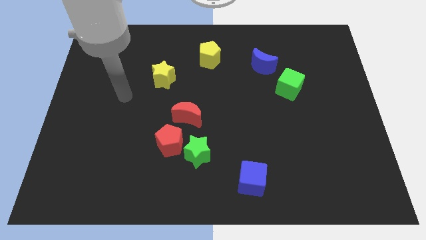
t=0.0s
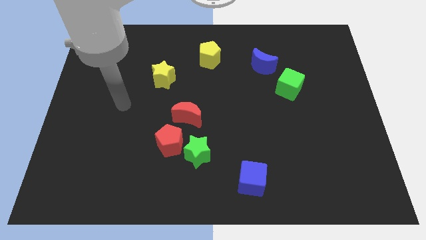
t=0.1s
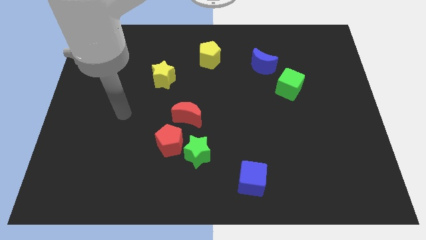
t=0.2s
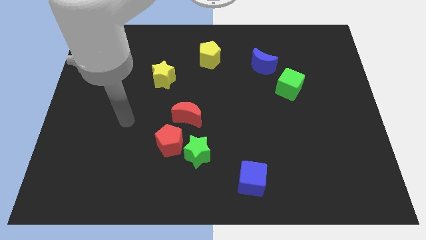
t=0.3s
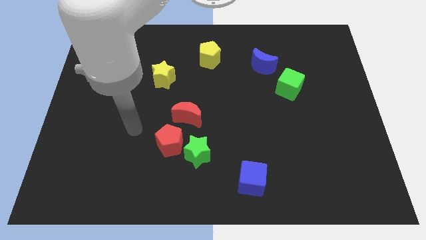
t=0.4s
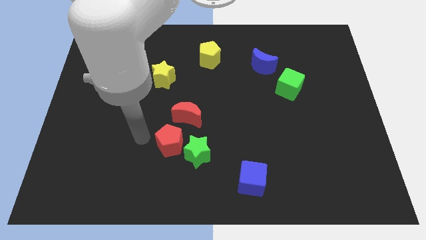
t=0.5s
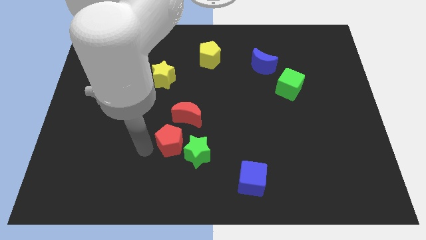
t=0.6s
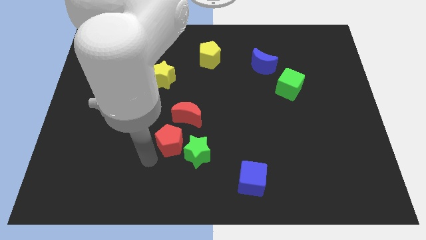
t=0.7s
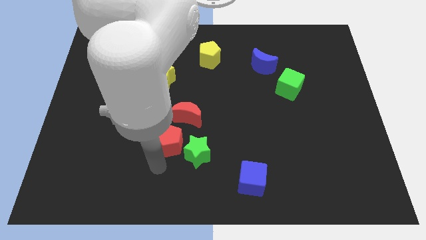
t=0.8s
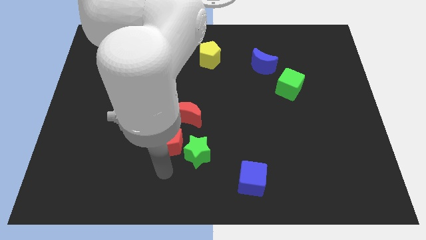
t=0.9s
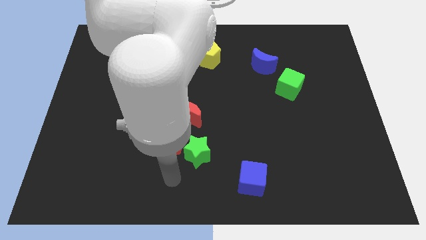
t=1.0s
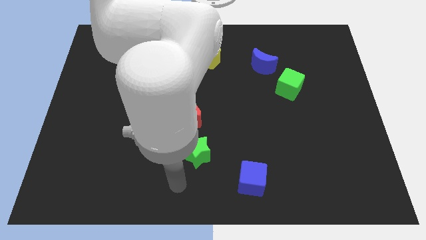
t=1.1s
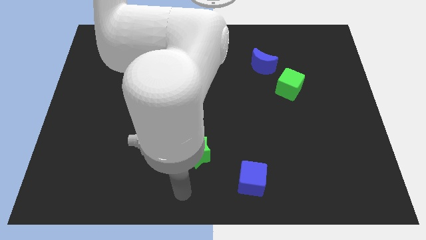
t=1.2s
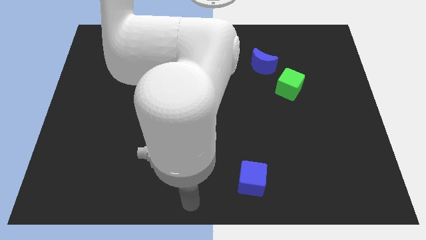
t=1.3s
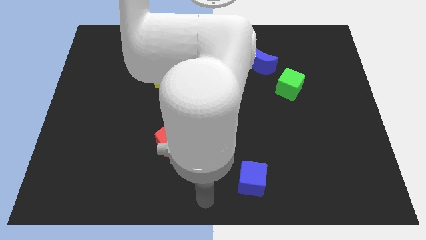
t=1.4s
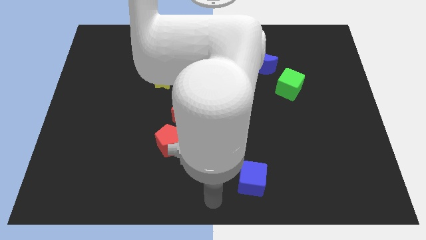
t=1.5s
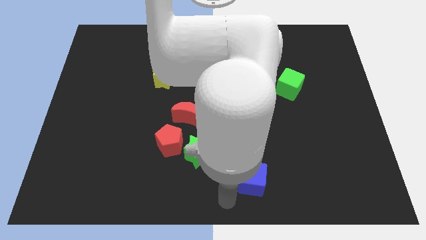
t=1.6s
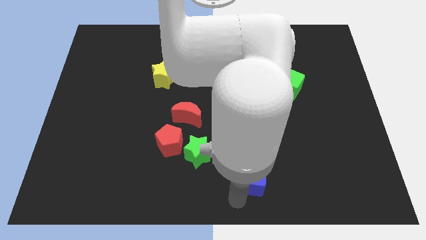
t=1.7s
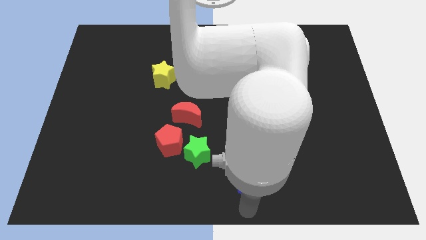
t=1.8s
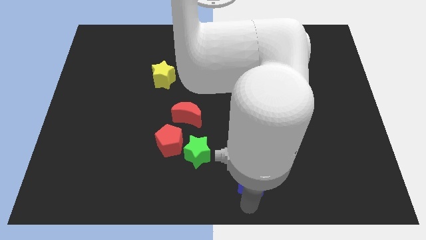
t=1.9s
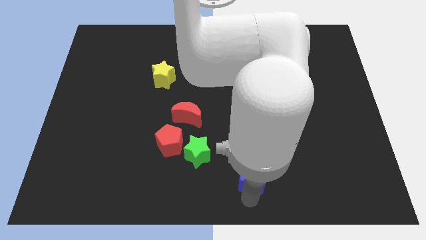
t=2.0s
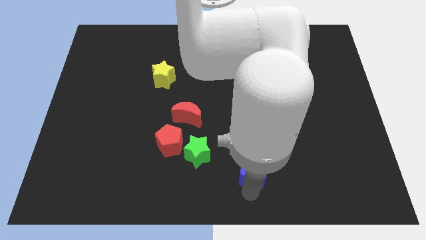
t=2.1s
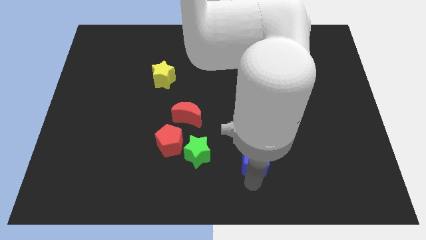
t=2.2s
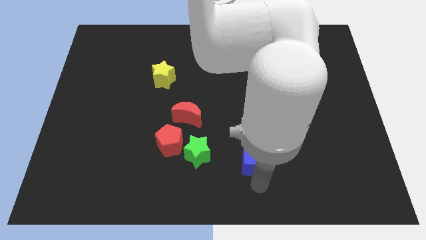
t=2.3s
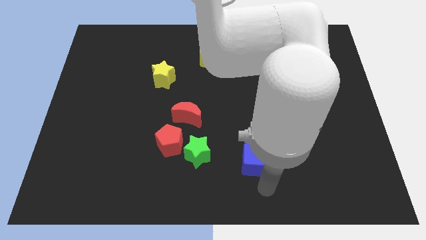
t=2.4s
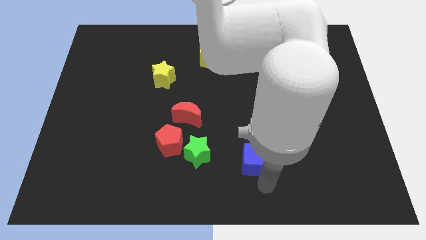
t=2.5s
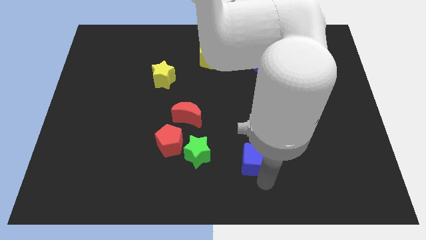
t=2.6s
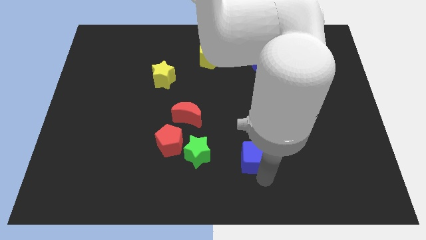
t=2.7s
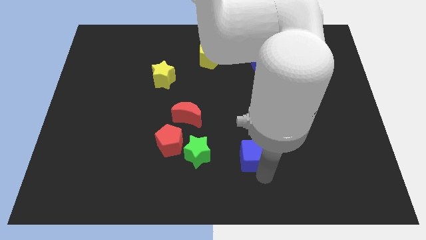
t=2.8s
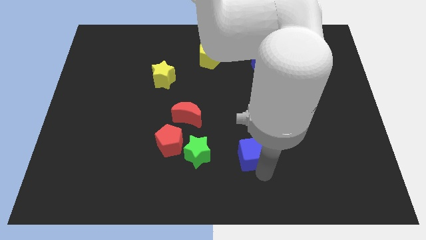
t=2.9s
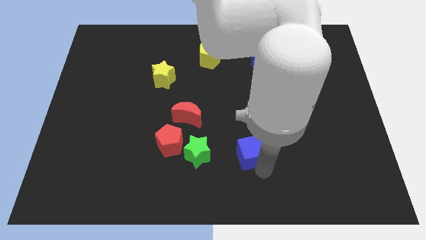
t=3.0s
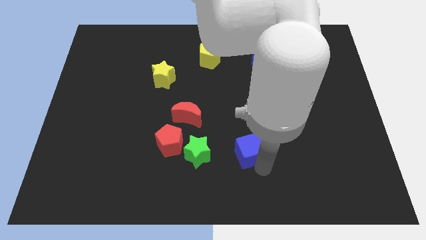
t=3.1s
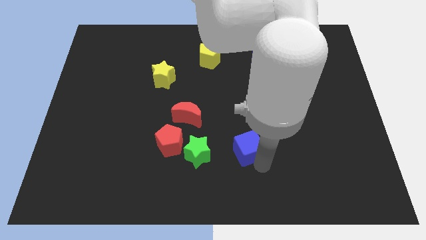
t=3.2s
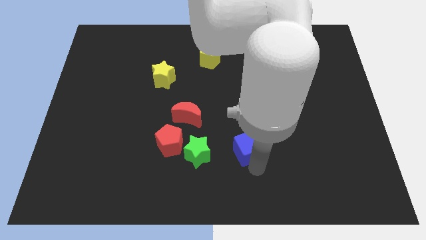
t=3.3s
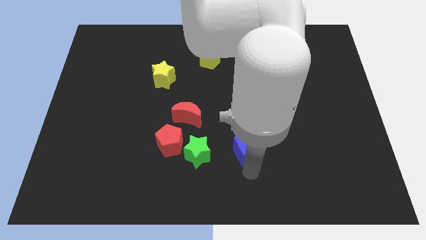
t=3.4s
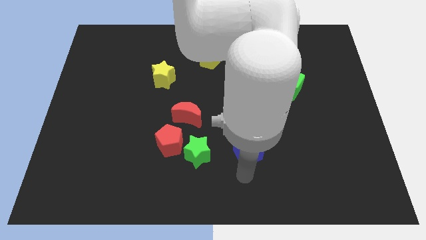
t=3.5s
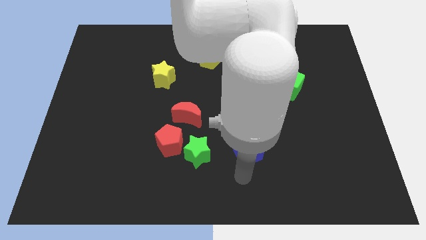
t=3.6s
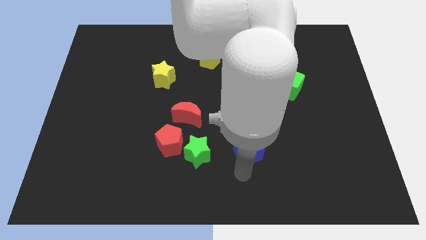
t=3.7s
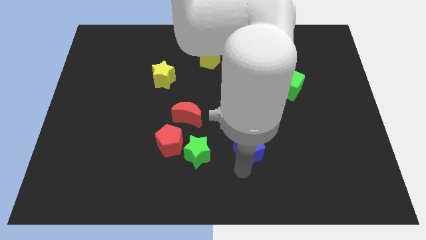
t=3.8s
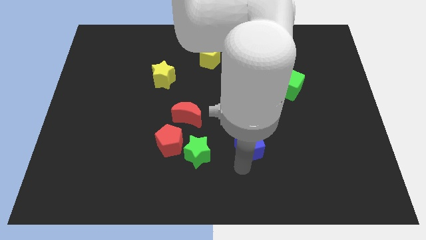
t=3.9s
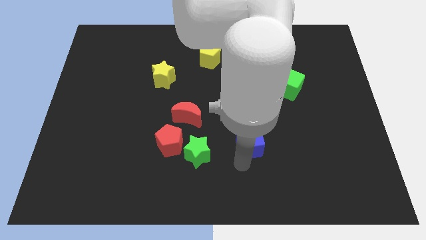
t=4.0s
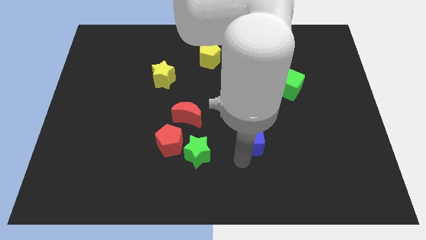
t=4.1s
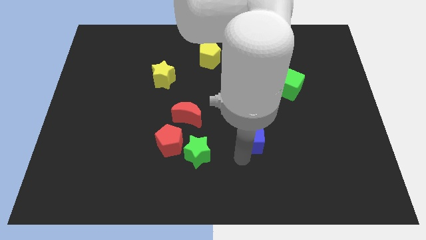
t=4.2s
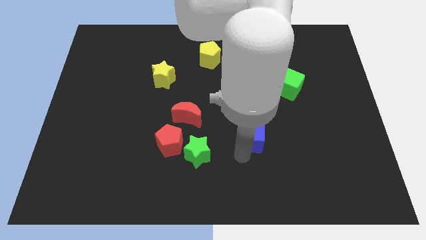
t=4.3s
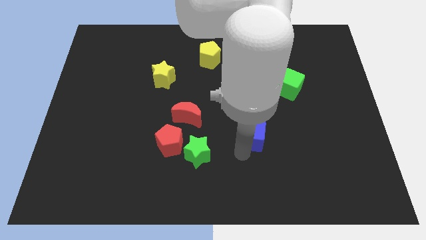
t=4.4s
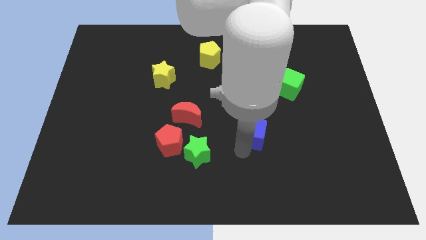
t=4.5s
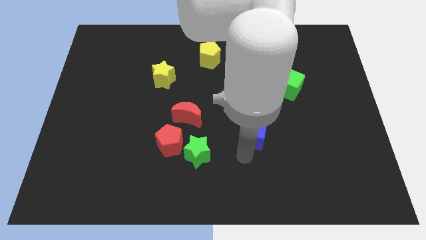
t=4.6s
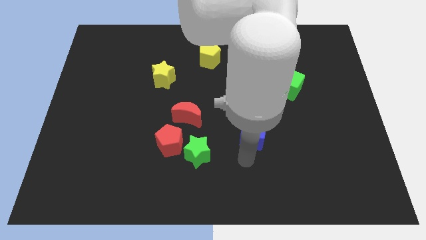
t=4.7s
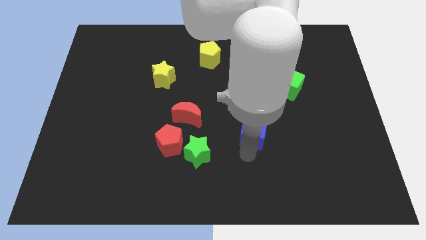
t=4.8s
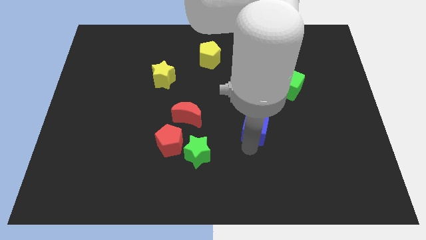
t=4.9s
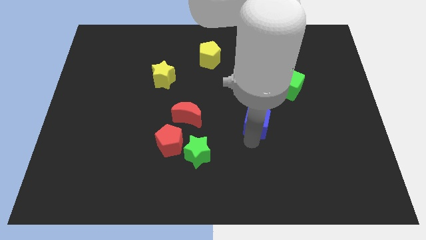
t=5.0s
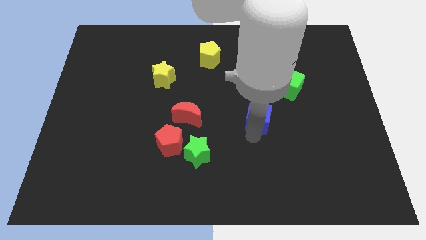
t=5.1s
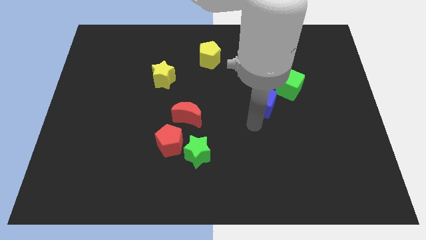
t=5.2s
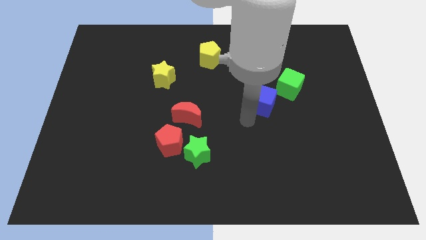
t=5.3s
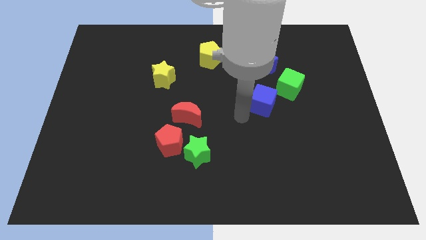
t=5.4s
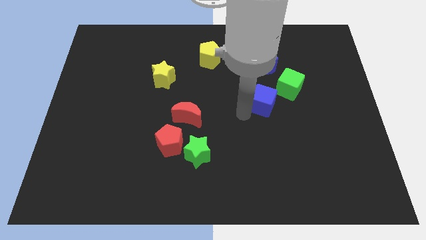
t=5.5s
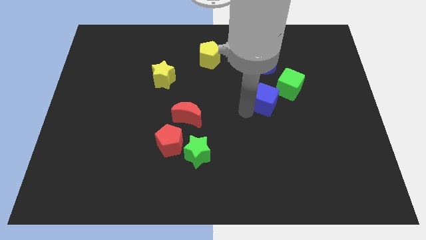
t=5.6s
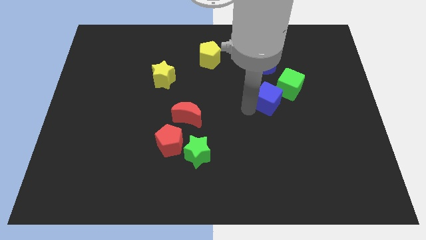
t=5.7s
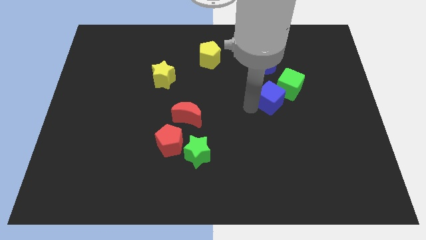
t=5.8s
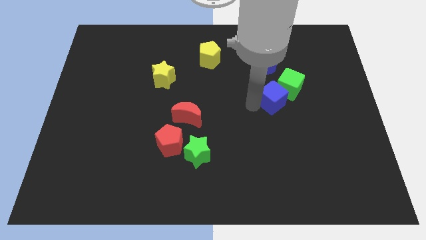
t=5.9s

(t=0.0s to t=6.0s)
slide the blue cube close to the green cube
